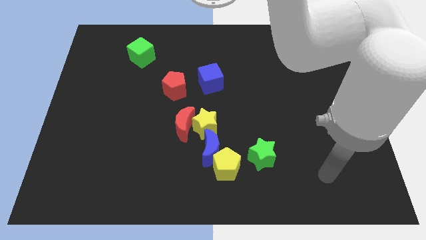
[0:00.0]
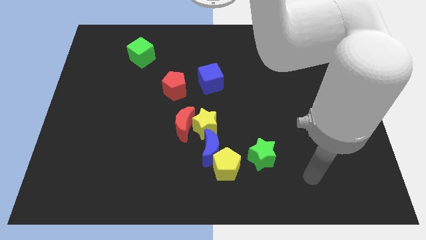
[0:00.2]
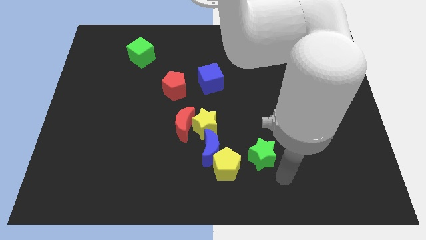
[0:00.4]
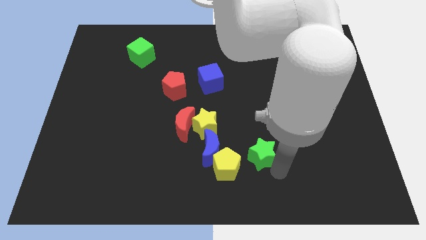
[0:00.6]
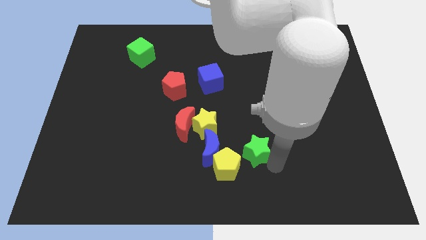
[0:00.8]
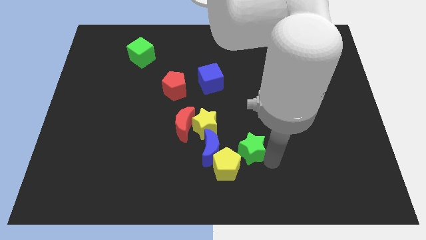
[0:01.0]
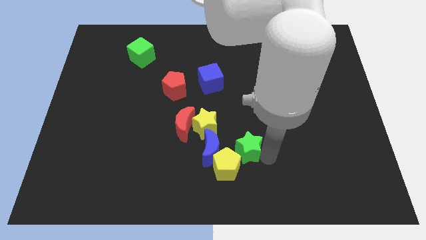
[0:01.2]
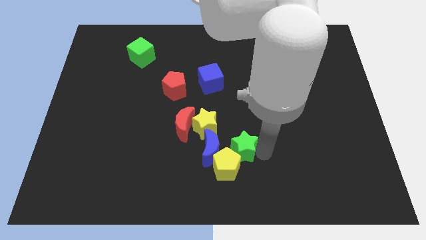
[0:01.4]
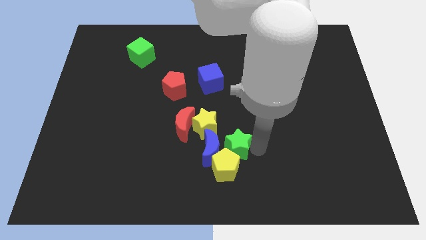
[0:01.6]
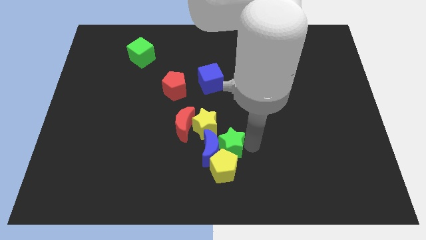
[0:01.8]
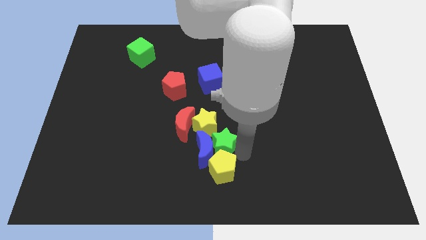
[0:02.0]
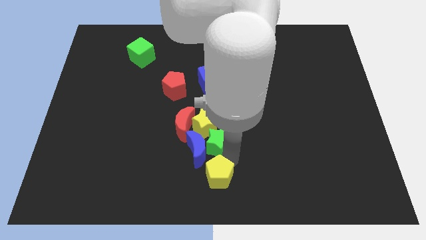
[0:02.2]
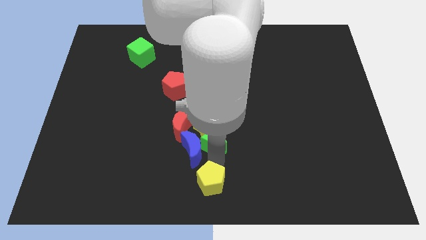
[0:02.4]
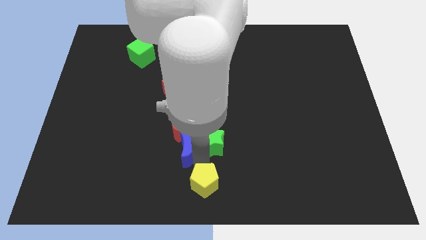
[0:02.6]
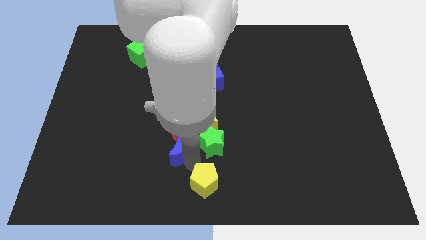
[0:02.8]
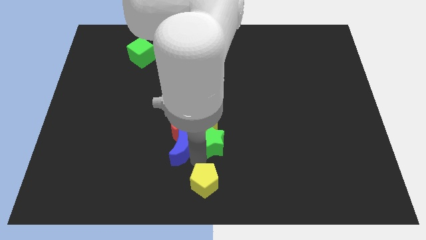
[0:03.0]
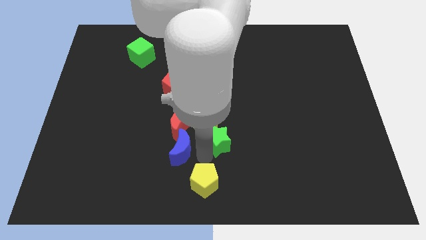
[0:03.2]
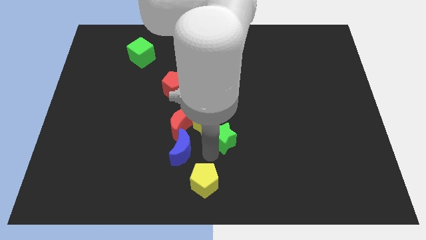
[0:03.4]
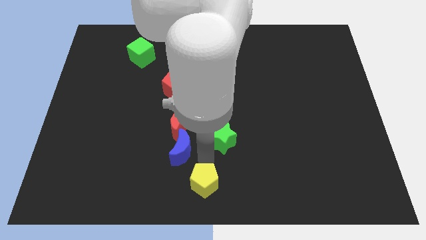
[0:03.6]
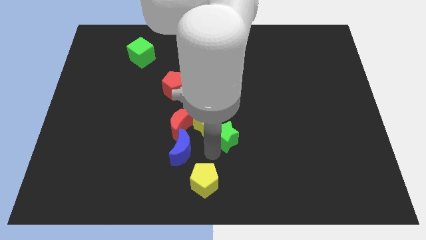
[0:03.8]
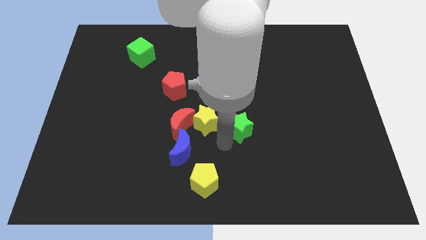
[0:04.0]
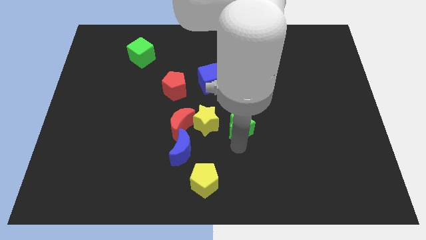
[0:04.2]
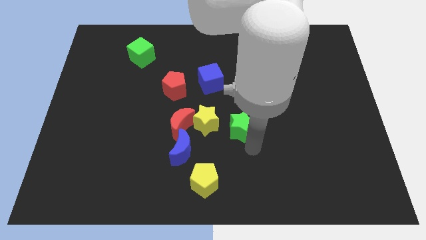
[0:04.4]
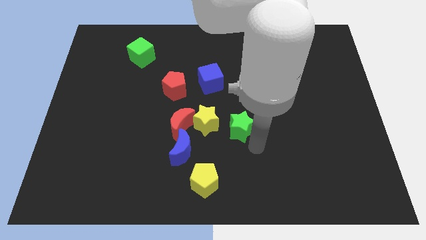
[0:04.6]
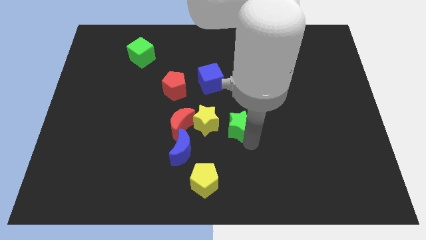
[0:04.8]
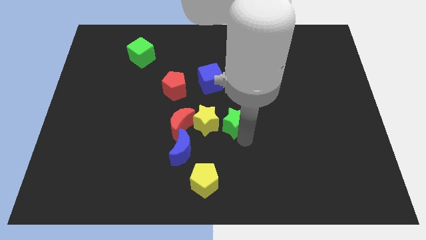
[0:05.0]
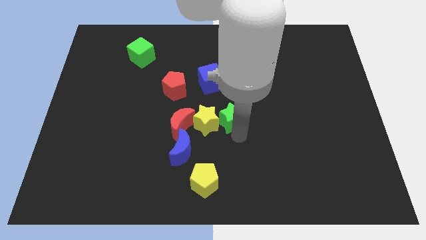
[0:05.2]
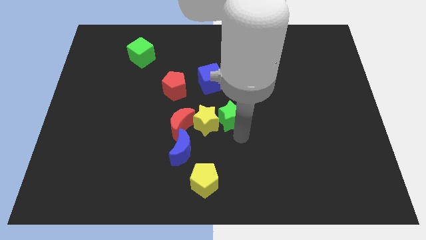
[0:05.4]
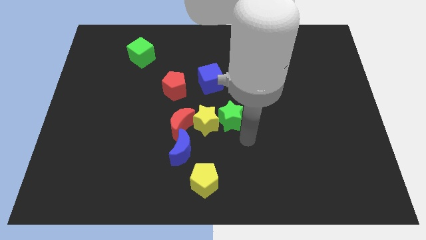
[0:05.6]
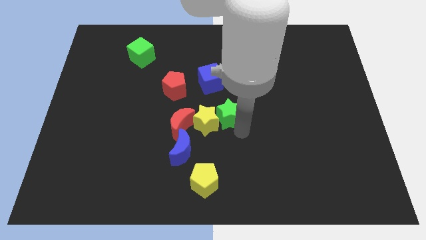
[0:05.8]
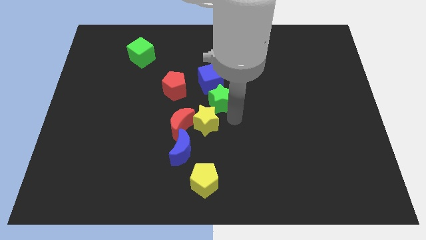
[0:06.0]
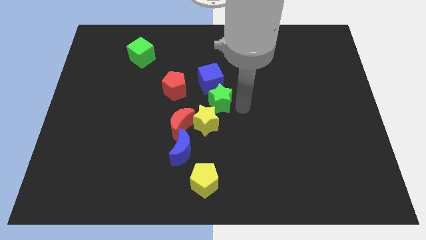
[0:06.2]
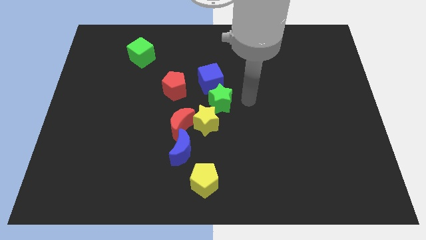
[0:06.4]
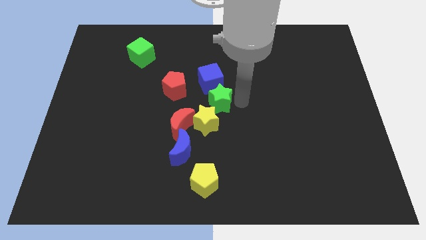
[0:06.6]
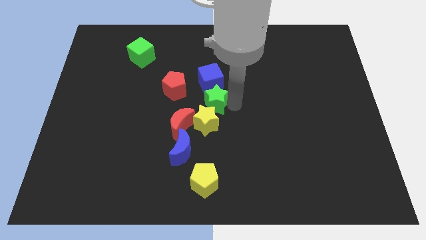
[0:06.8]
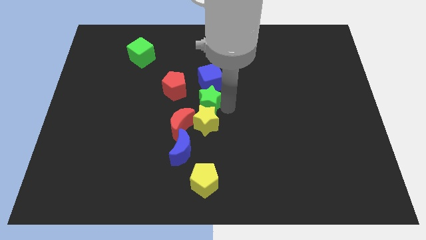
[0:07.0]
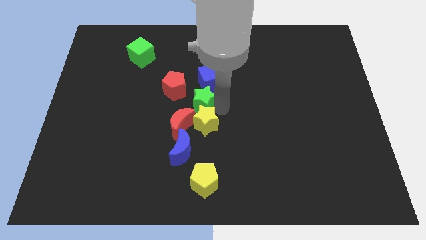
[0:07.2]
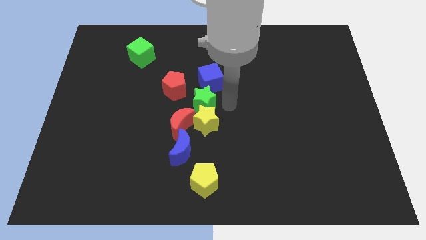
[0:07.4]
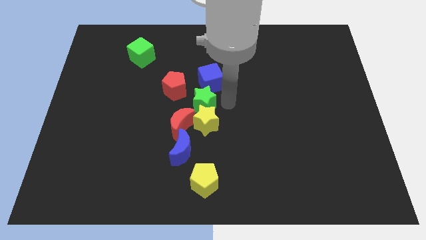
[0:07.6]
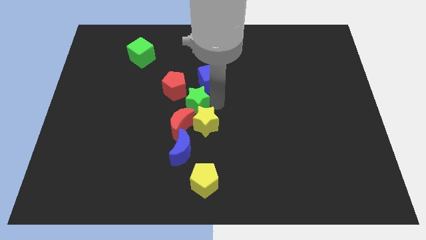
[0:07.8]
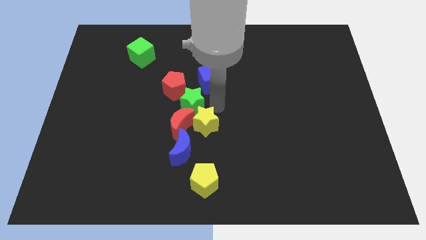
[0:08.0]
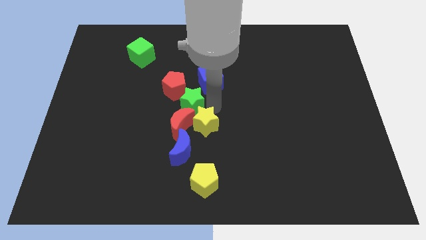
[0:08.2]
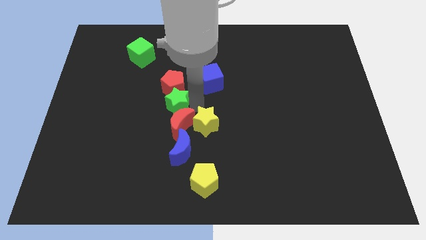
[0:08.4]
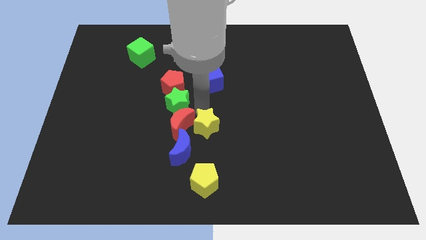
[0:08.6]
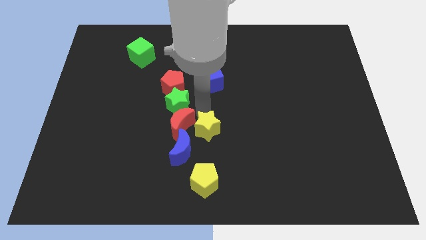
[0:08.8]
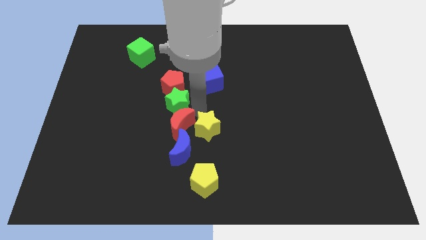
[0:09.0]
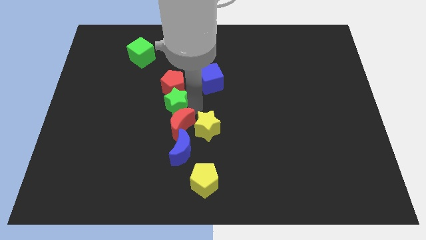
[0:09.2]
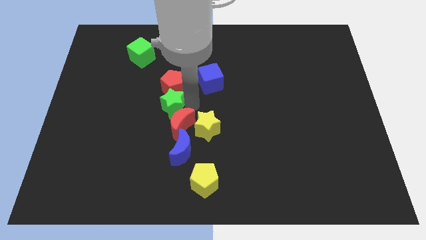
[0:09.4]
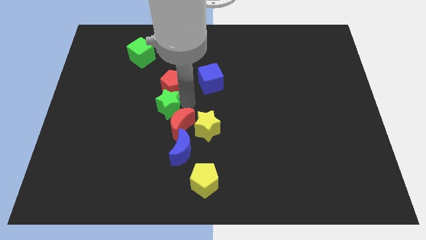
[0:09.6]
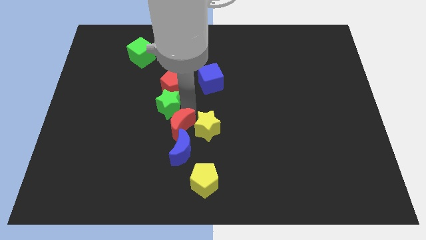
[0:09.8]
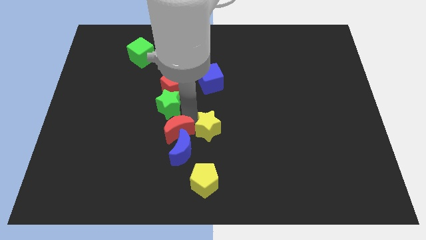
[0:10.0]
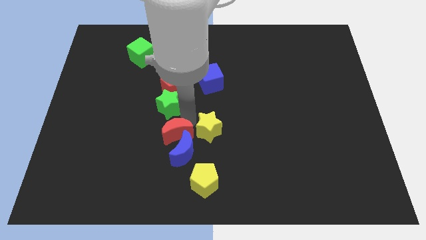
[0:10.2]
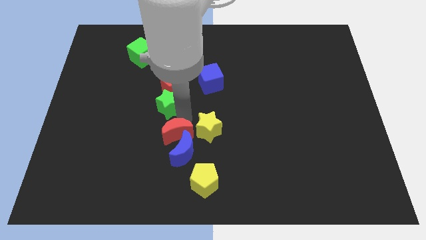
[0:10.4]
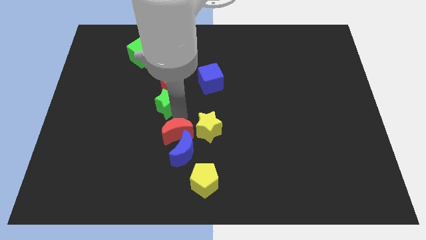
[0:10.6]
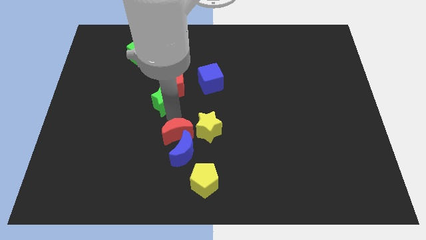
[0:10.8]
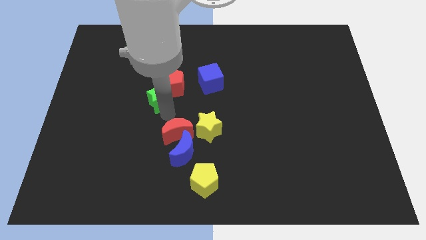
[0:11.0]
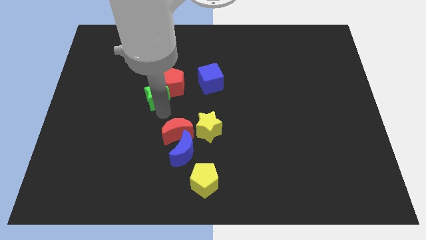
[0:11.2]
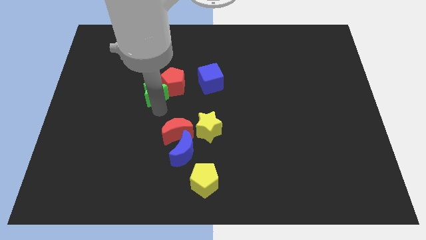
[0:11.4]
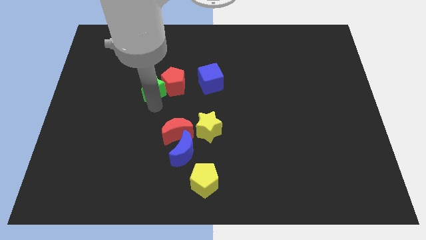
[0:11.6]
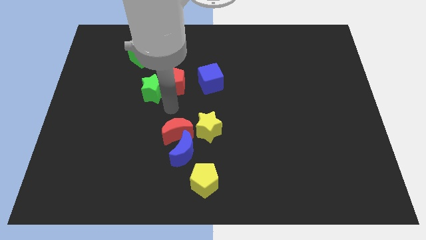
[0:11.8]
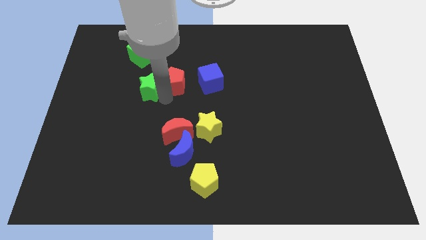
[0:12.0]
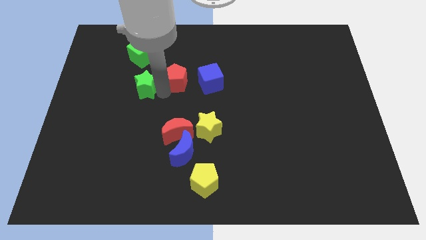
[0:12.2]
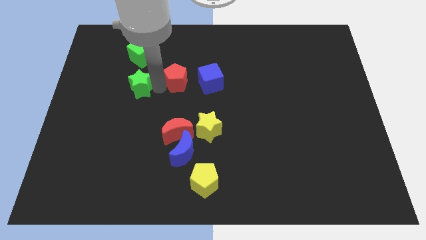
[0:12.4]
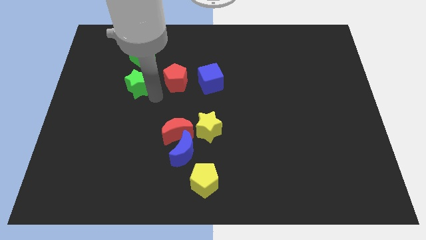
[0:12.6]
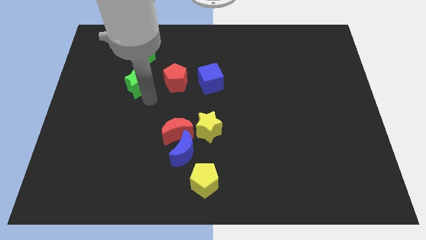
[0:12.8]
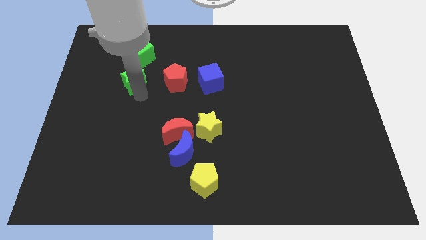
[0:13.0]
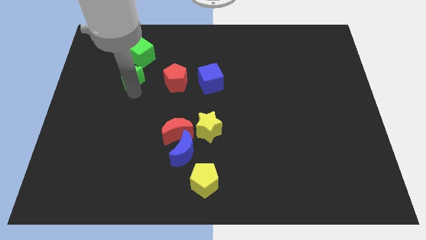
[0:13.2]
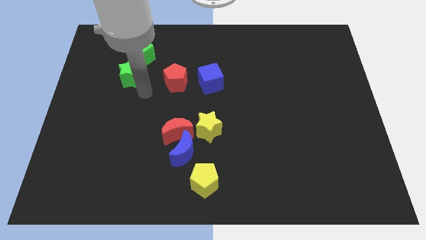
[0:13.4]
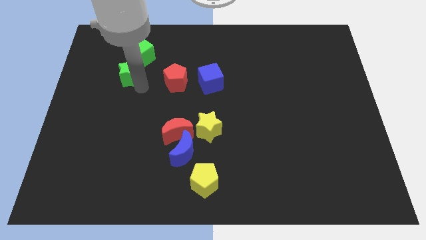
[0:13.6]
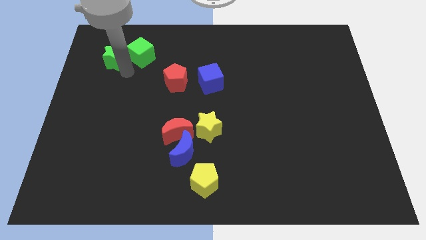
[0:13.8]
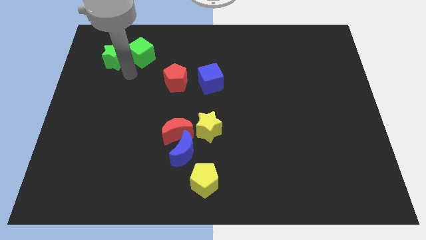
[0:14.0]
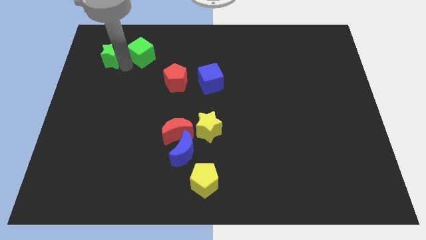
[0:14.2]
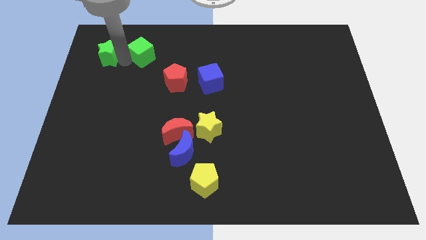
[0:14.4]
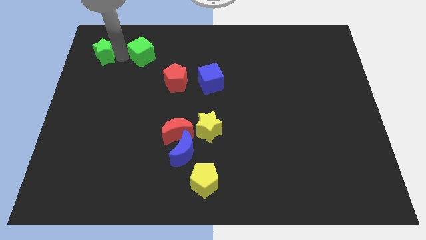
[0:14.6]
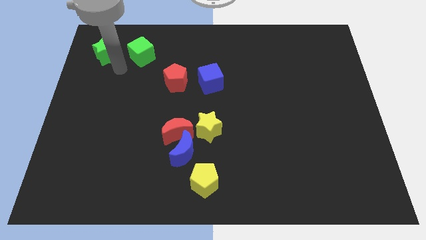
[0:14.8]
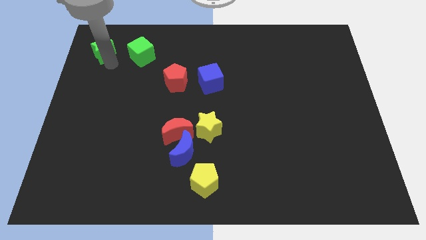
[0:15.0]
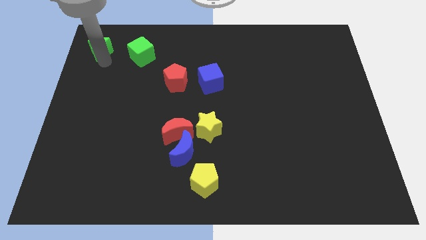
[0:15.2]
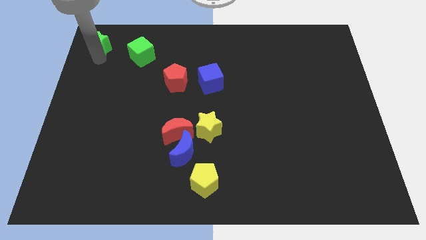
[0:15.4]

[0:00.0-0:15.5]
move the green star to the top left of the board
